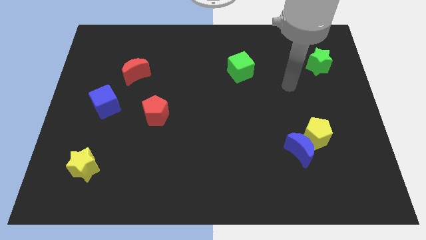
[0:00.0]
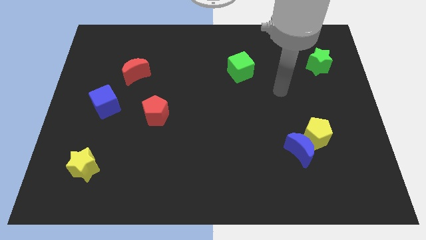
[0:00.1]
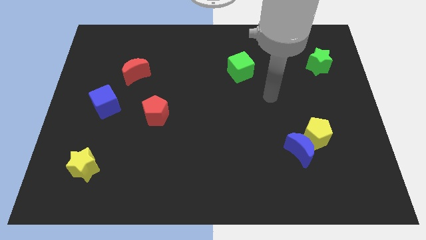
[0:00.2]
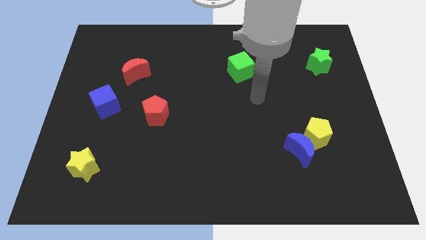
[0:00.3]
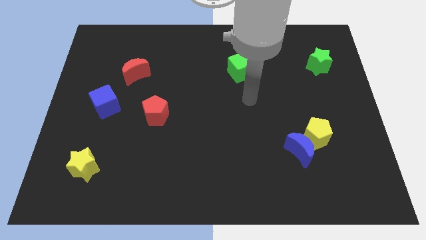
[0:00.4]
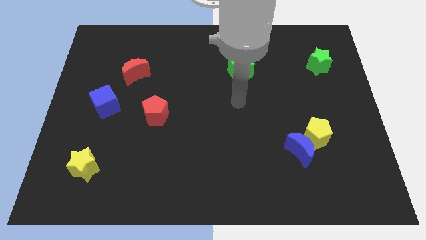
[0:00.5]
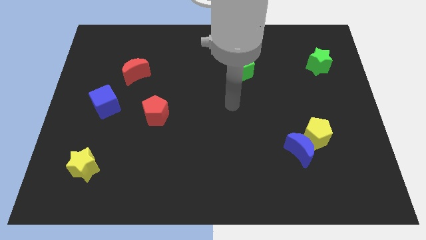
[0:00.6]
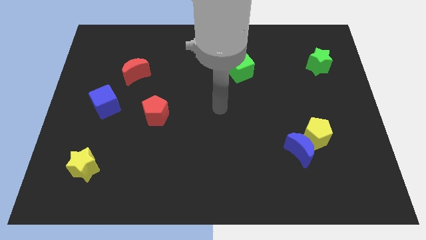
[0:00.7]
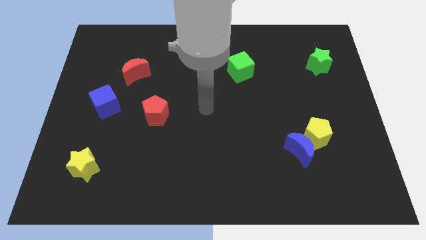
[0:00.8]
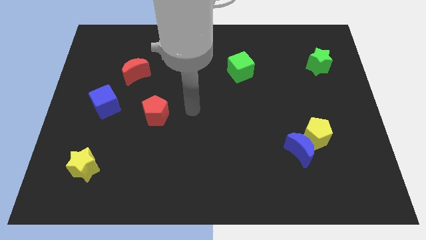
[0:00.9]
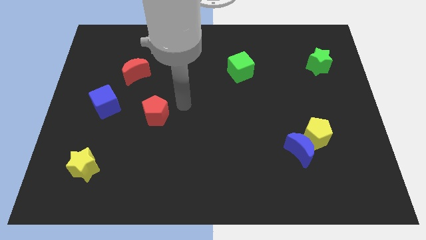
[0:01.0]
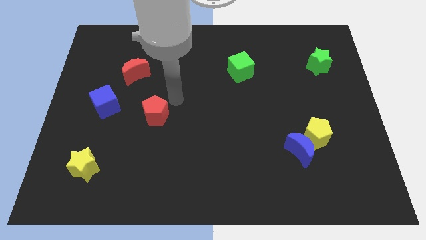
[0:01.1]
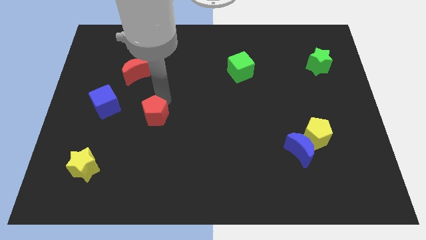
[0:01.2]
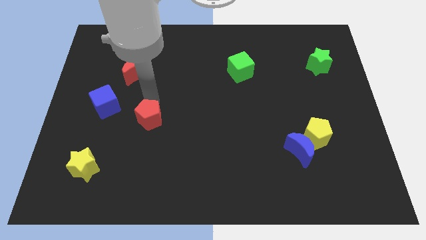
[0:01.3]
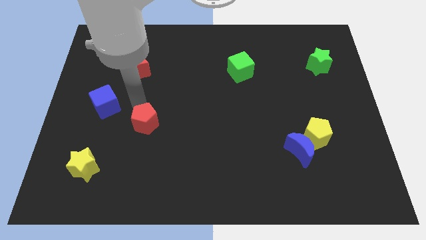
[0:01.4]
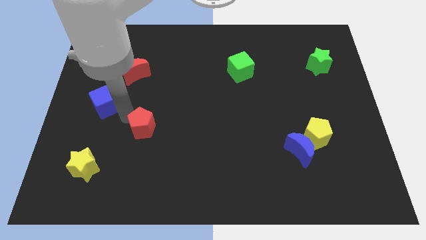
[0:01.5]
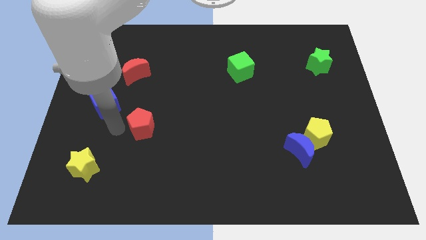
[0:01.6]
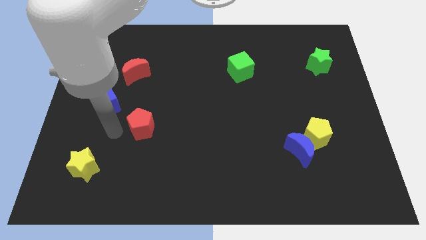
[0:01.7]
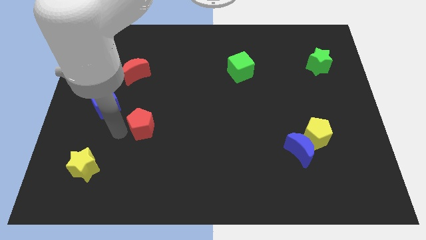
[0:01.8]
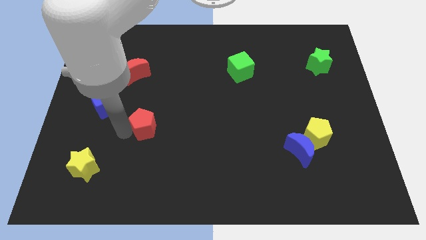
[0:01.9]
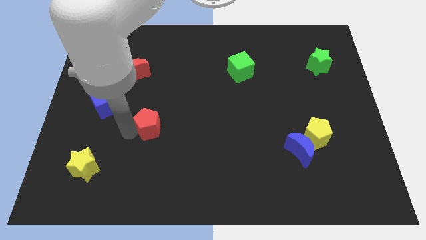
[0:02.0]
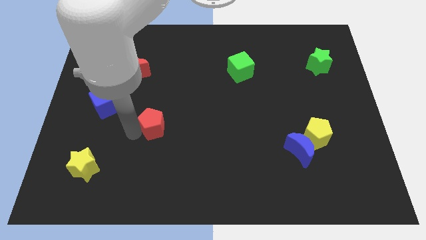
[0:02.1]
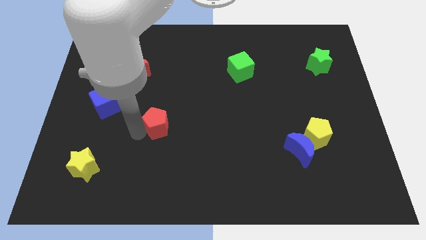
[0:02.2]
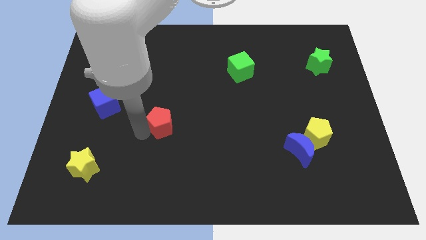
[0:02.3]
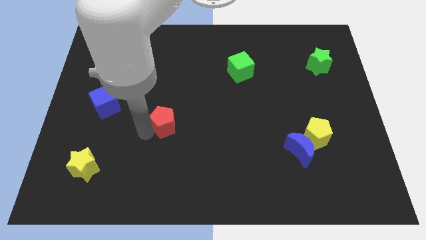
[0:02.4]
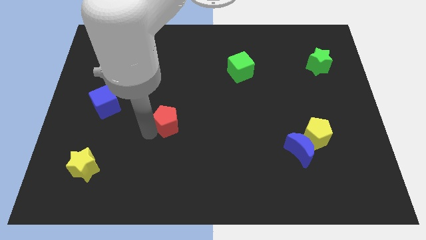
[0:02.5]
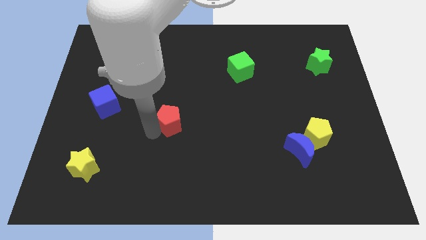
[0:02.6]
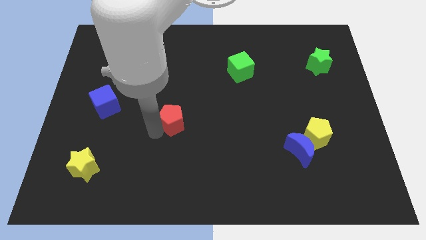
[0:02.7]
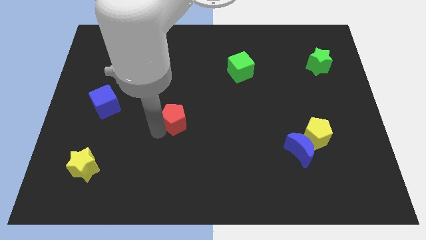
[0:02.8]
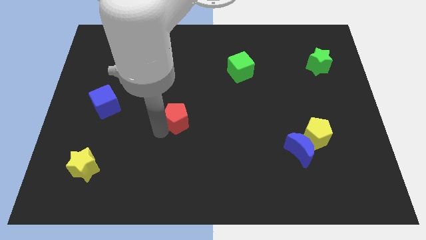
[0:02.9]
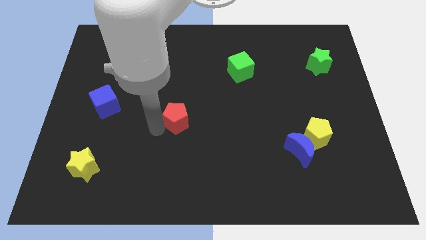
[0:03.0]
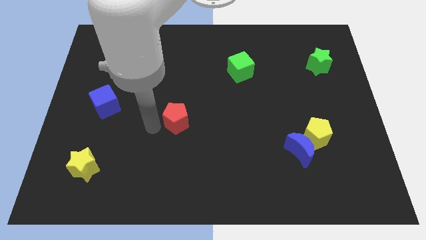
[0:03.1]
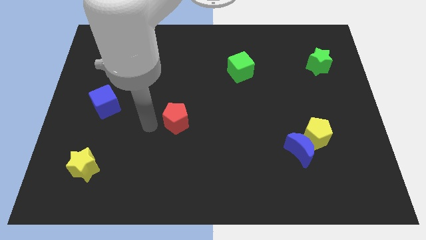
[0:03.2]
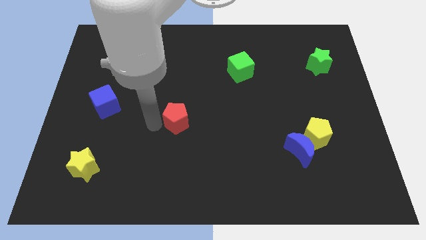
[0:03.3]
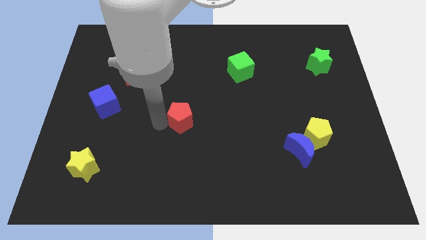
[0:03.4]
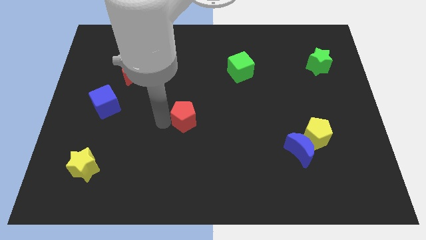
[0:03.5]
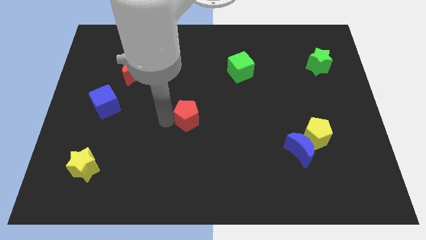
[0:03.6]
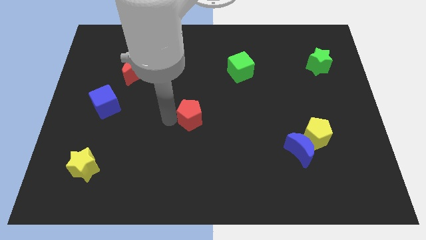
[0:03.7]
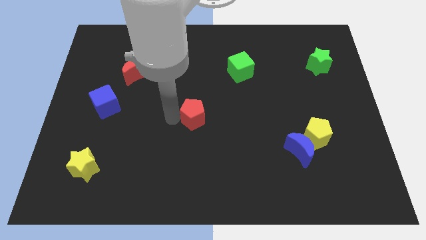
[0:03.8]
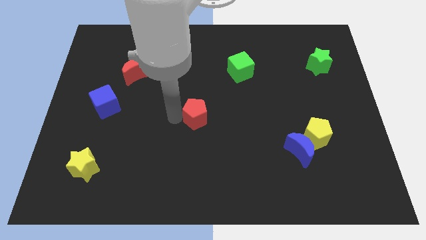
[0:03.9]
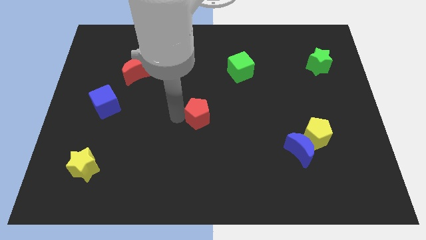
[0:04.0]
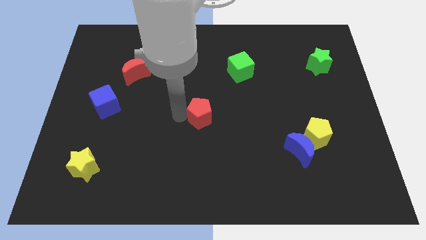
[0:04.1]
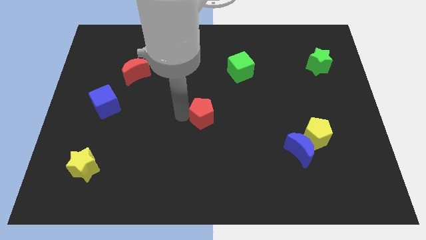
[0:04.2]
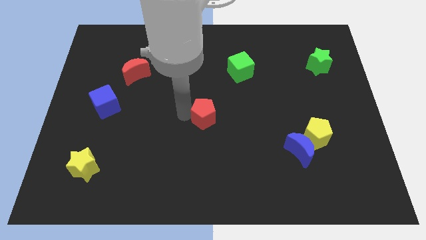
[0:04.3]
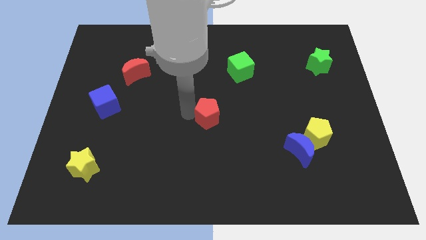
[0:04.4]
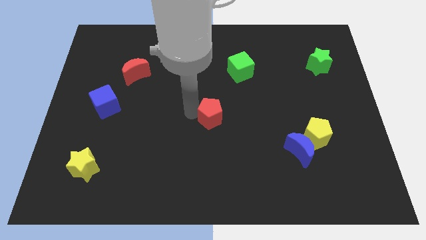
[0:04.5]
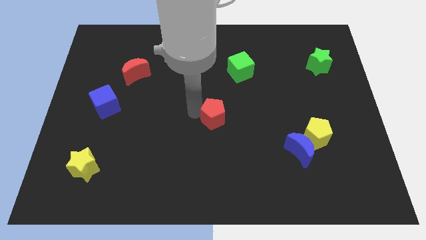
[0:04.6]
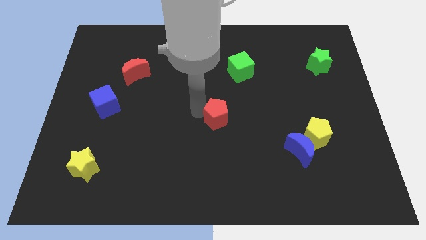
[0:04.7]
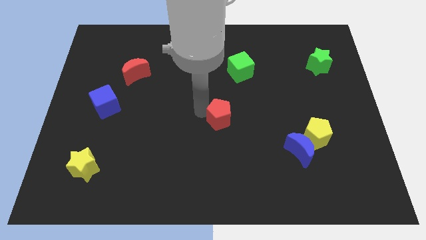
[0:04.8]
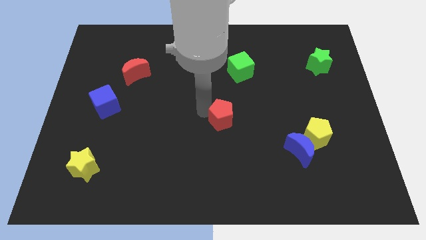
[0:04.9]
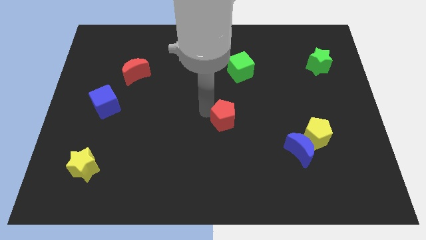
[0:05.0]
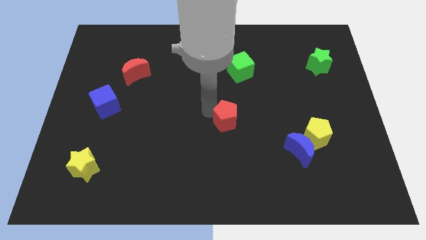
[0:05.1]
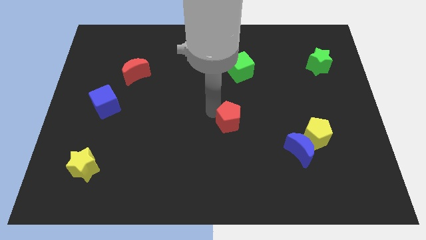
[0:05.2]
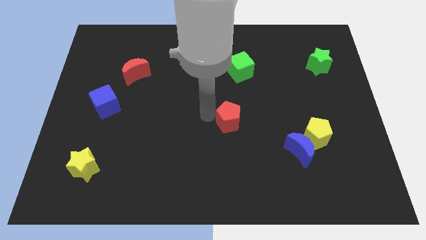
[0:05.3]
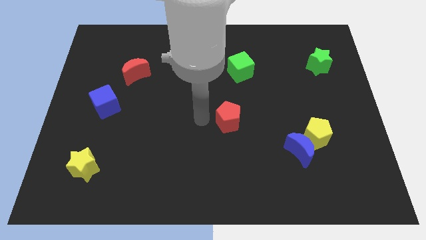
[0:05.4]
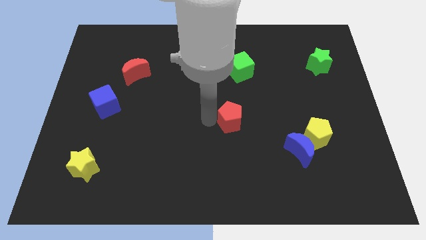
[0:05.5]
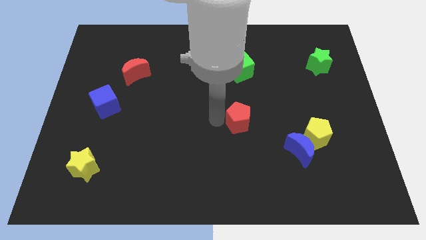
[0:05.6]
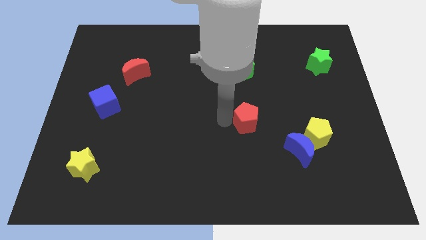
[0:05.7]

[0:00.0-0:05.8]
slide the red pentagon to the right

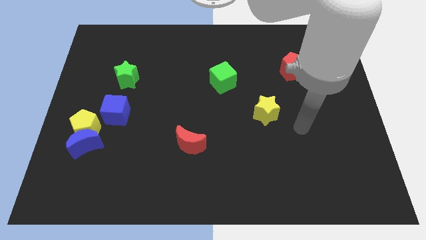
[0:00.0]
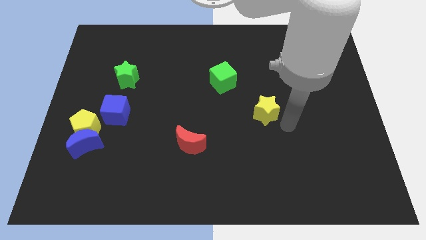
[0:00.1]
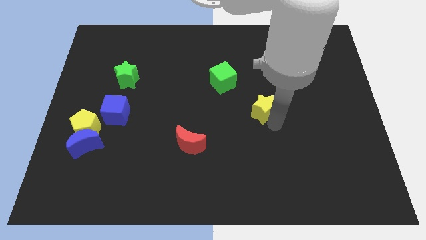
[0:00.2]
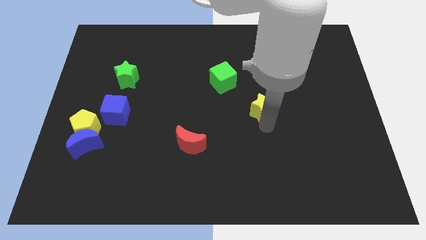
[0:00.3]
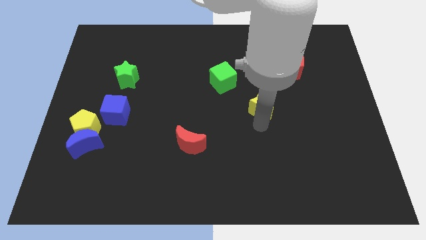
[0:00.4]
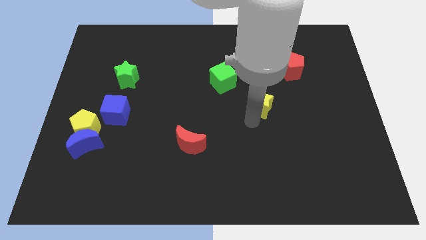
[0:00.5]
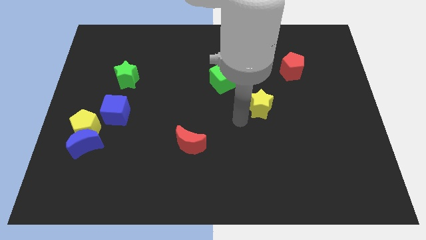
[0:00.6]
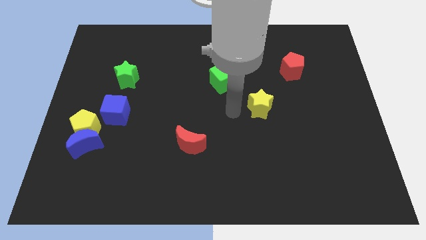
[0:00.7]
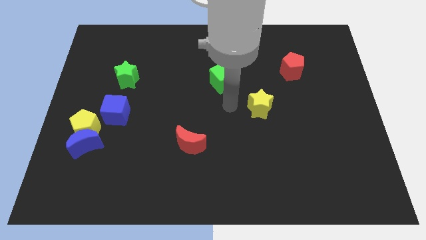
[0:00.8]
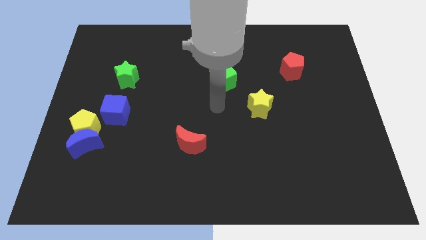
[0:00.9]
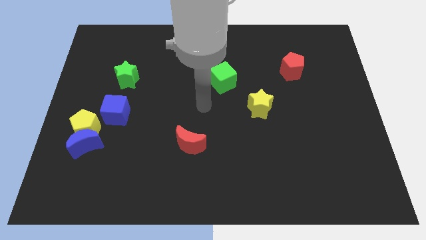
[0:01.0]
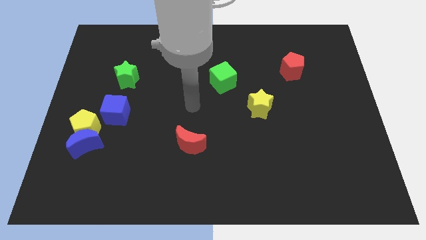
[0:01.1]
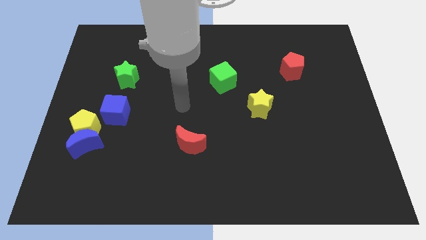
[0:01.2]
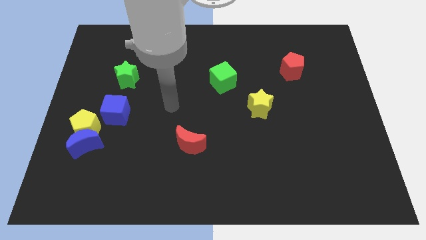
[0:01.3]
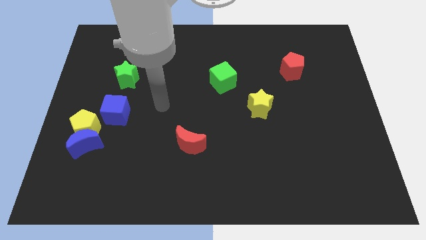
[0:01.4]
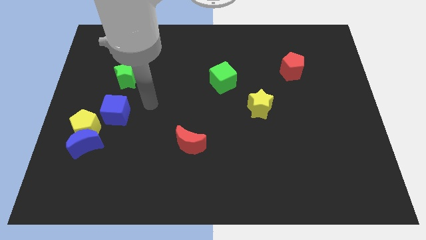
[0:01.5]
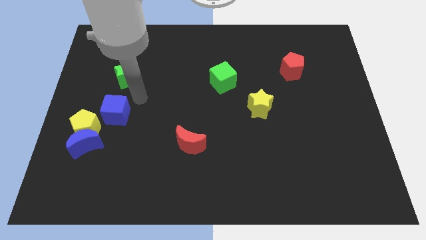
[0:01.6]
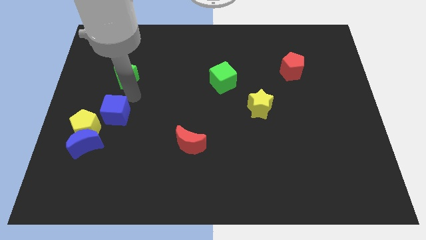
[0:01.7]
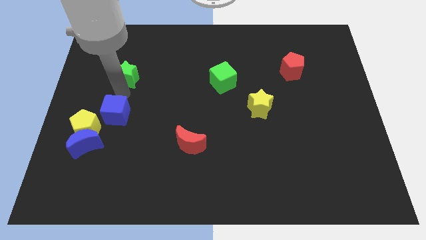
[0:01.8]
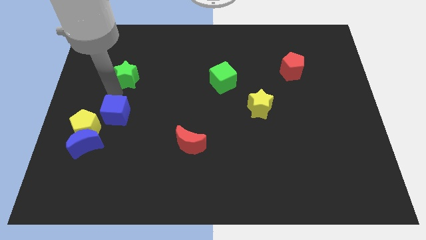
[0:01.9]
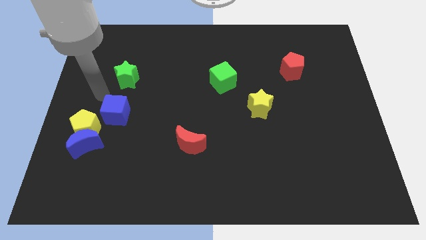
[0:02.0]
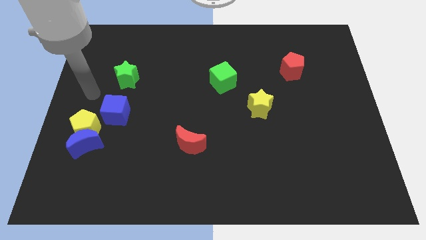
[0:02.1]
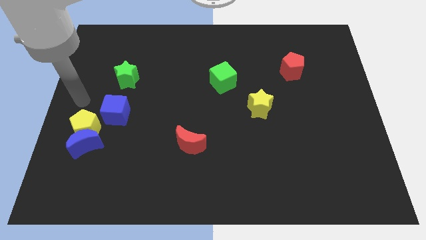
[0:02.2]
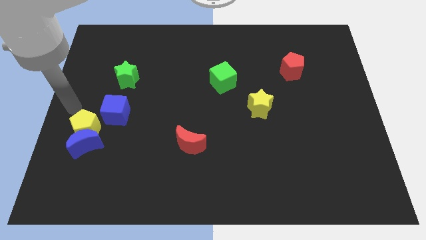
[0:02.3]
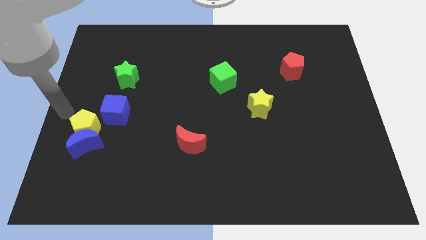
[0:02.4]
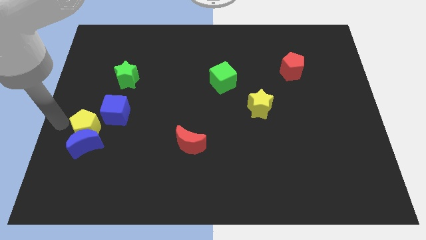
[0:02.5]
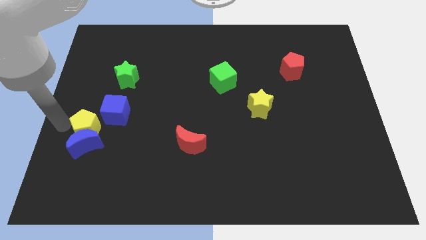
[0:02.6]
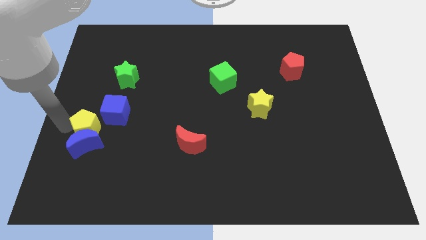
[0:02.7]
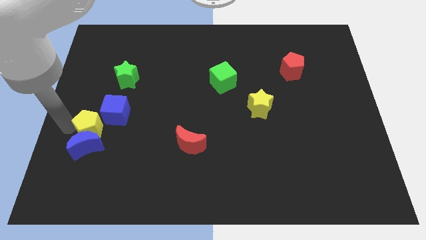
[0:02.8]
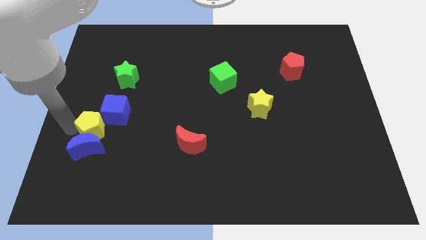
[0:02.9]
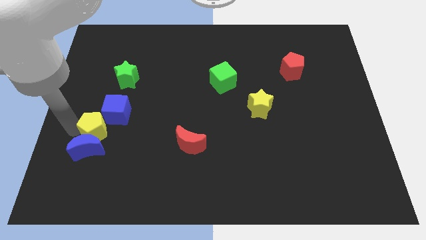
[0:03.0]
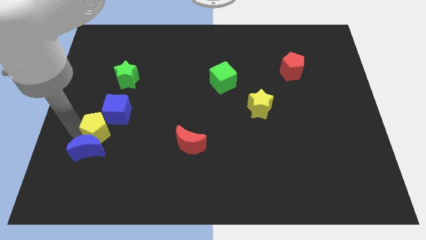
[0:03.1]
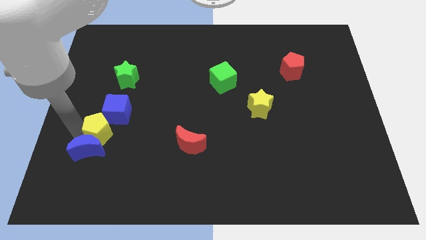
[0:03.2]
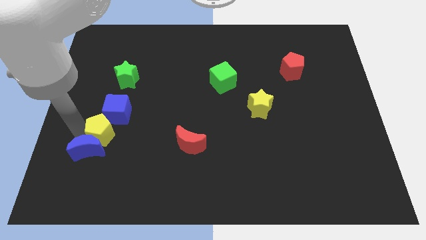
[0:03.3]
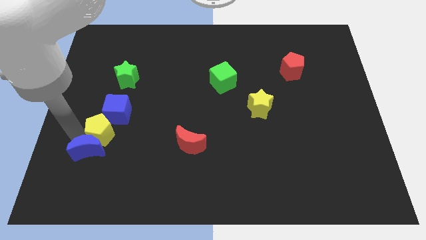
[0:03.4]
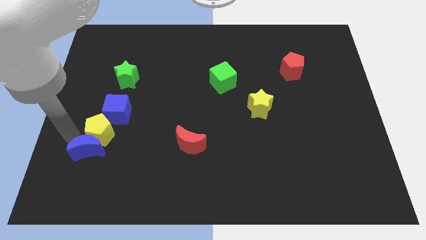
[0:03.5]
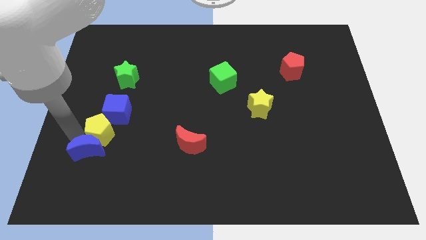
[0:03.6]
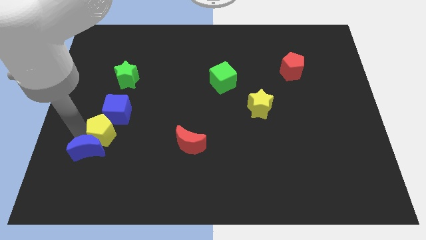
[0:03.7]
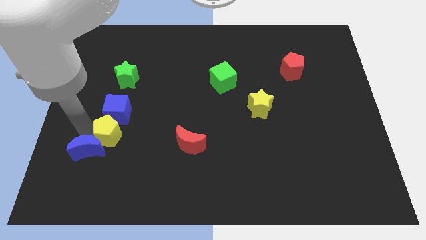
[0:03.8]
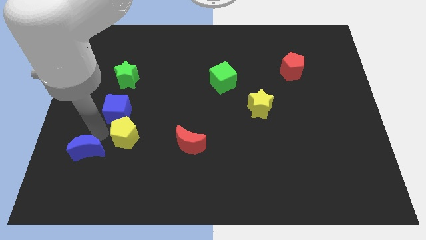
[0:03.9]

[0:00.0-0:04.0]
push the yellow pentagon to the right a bit
